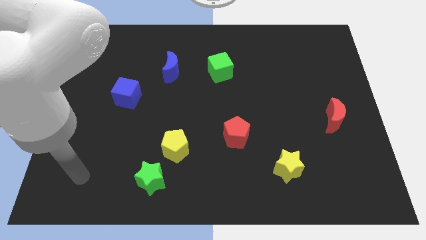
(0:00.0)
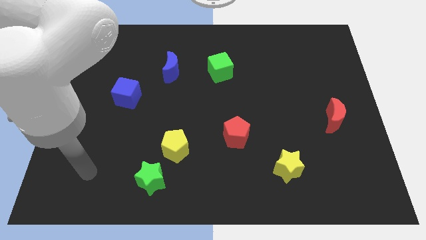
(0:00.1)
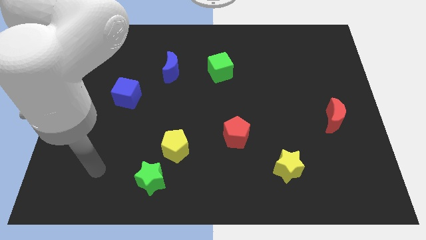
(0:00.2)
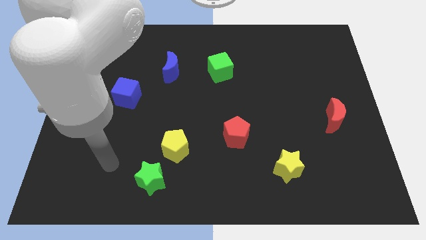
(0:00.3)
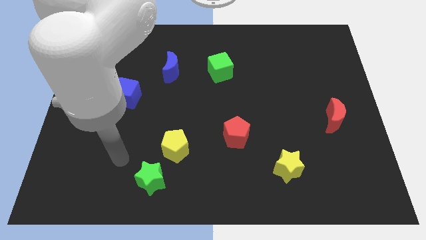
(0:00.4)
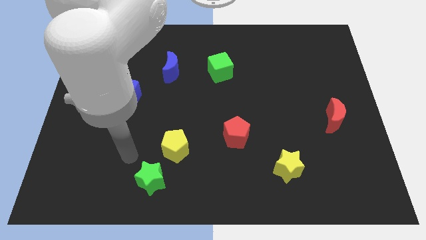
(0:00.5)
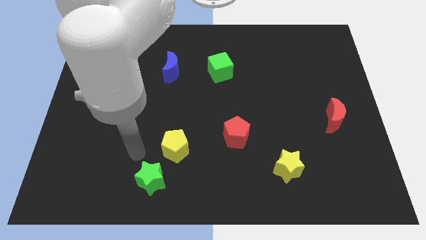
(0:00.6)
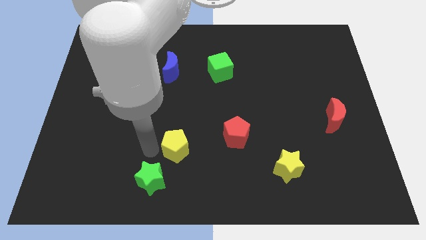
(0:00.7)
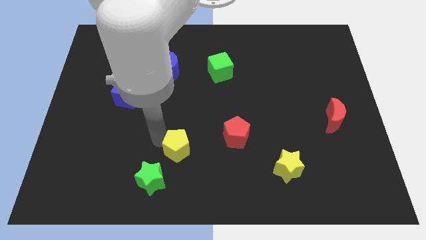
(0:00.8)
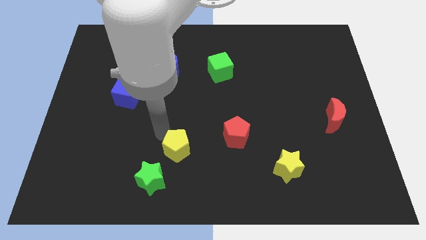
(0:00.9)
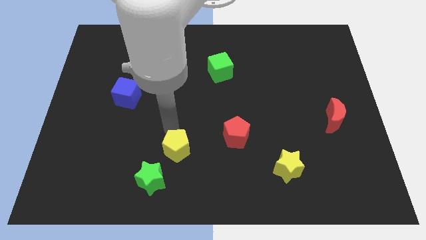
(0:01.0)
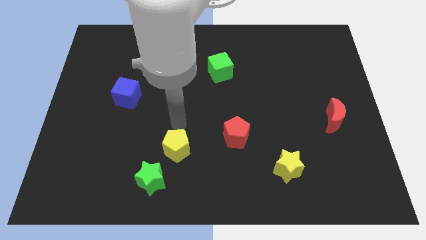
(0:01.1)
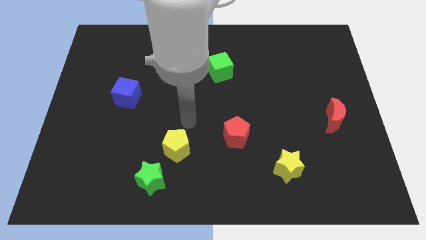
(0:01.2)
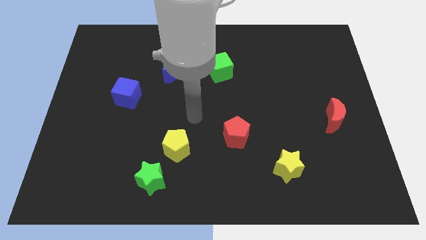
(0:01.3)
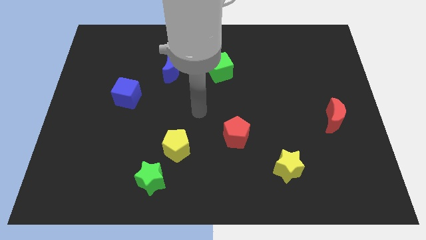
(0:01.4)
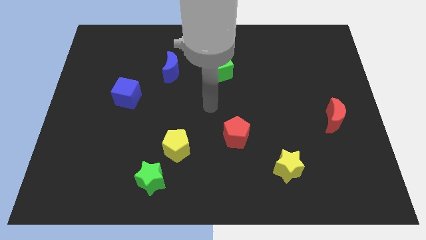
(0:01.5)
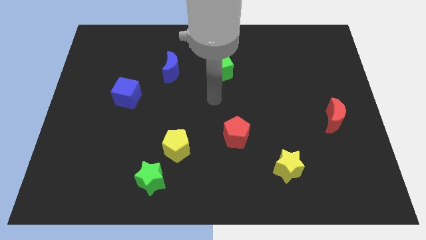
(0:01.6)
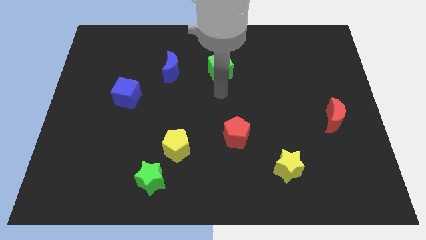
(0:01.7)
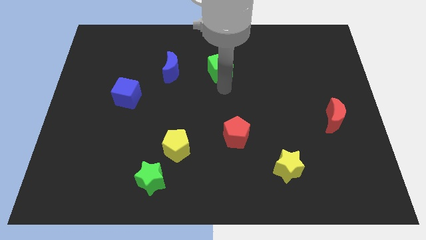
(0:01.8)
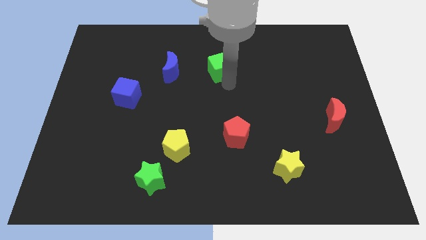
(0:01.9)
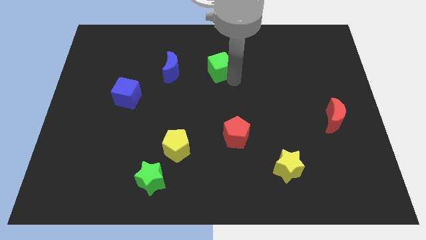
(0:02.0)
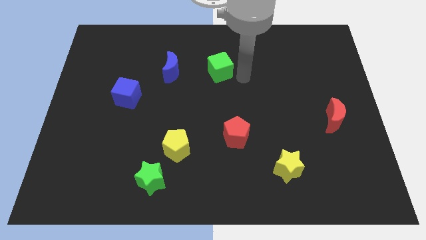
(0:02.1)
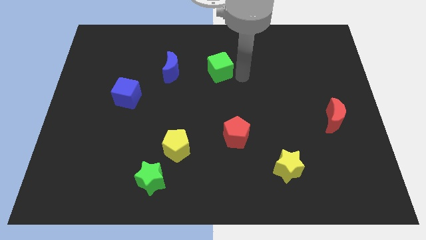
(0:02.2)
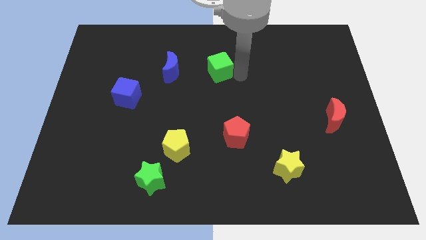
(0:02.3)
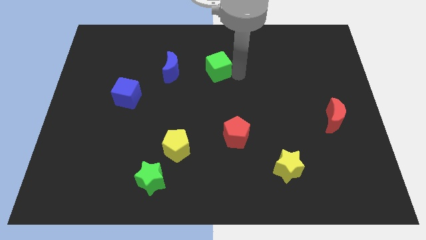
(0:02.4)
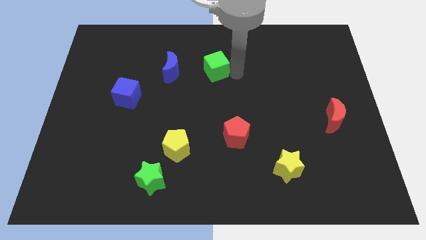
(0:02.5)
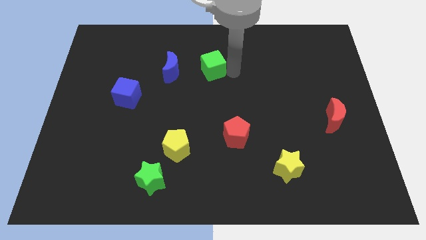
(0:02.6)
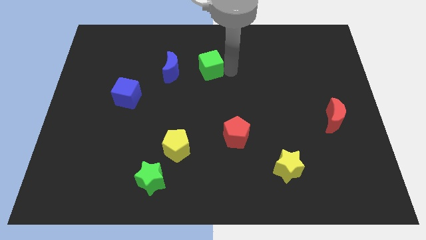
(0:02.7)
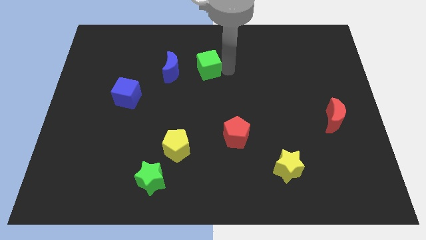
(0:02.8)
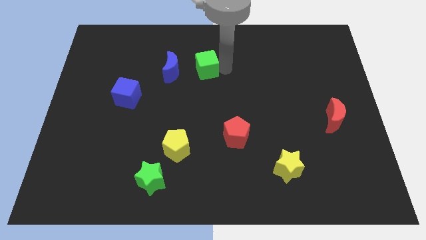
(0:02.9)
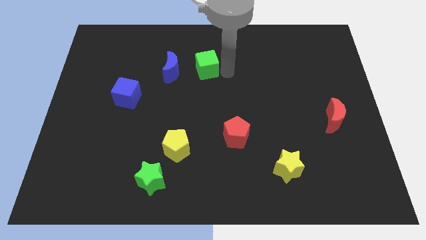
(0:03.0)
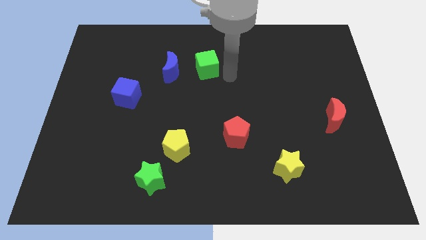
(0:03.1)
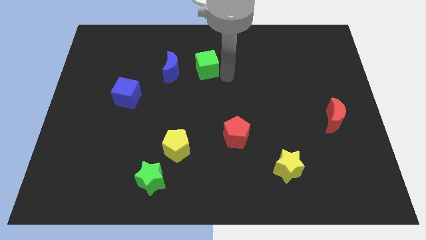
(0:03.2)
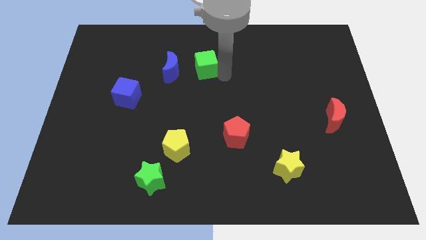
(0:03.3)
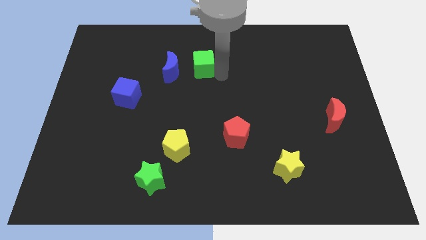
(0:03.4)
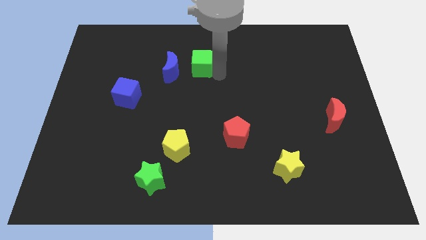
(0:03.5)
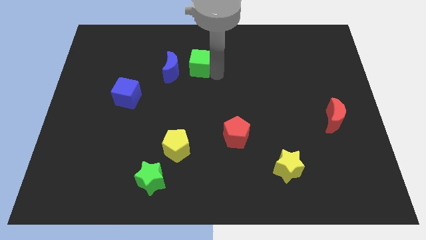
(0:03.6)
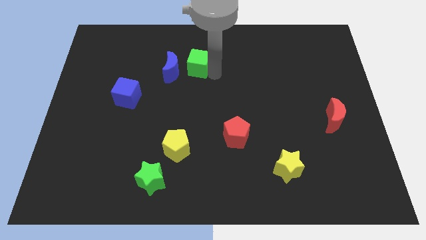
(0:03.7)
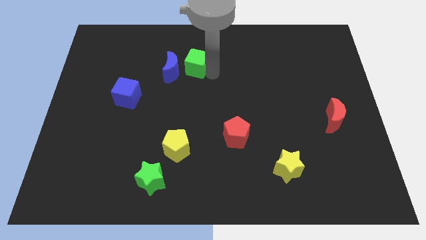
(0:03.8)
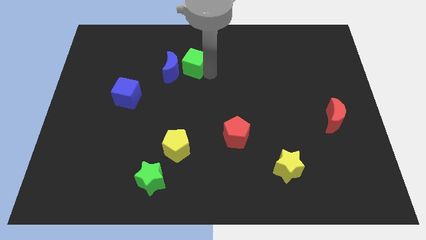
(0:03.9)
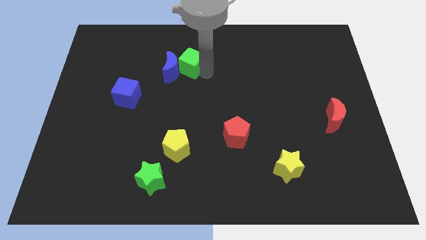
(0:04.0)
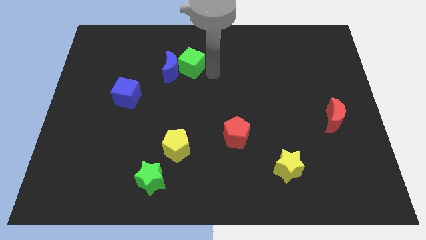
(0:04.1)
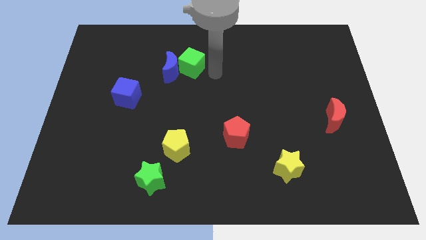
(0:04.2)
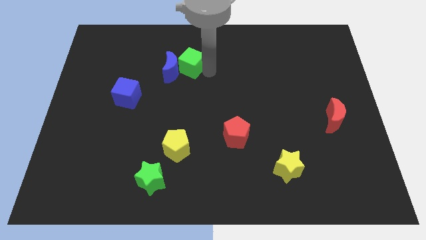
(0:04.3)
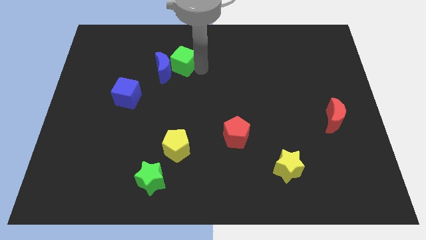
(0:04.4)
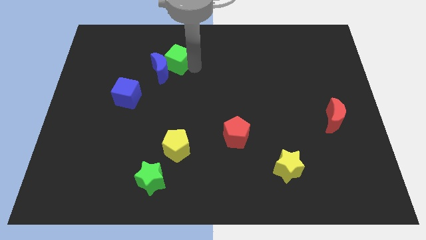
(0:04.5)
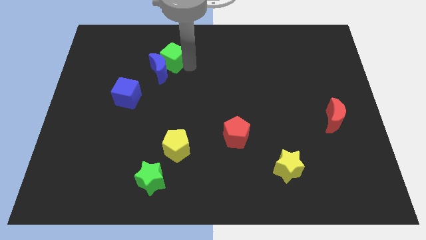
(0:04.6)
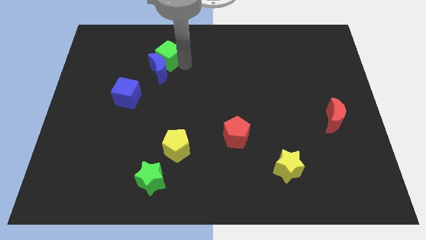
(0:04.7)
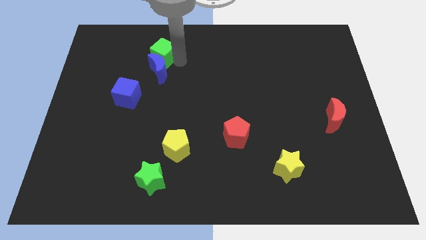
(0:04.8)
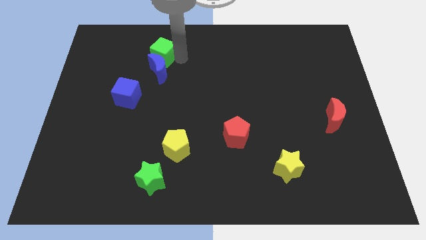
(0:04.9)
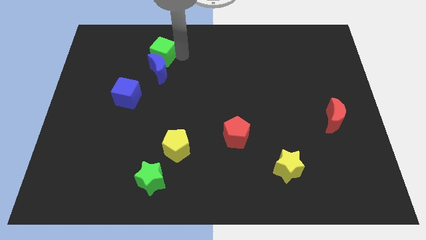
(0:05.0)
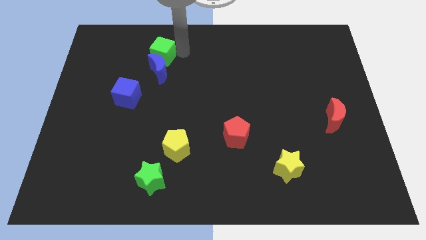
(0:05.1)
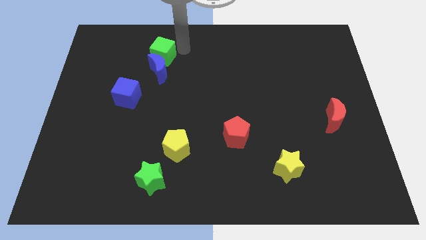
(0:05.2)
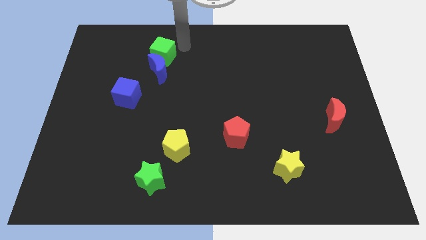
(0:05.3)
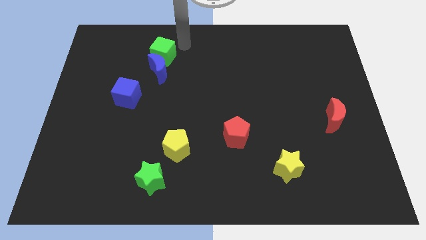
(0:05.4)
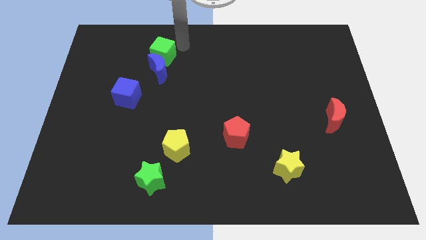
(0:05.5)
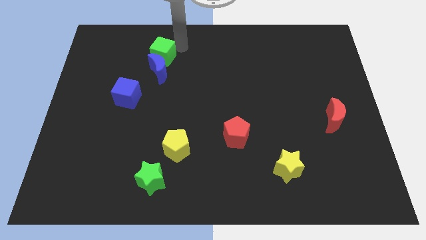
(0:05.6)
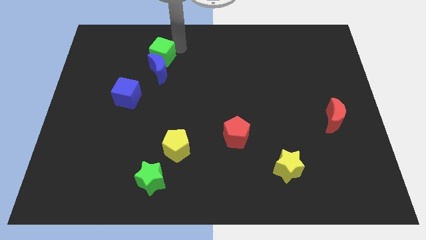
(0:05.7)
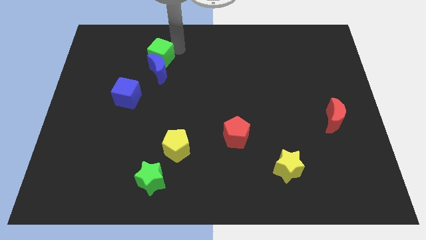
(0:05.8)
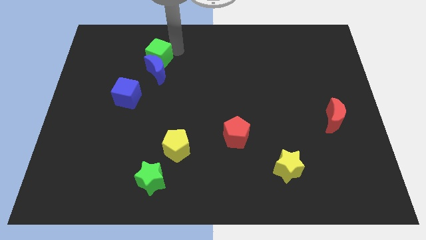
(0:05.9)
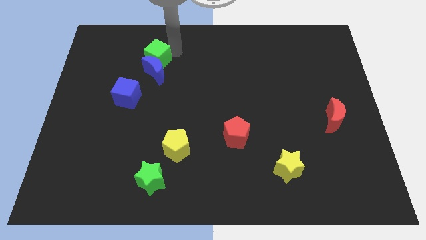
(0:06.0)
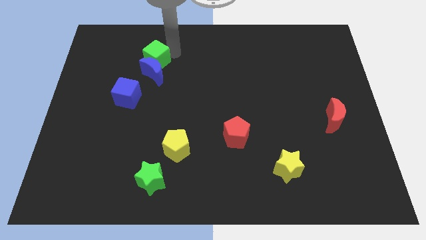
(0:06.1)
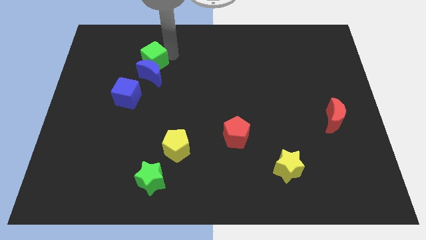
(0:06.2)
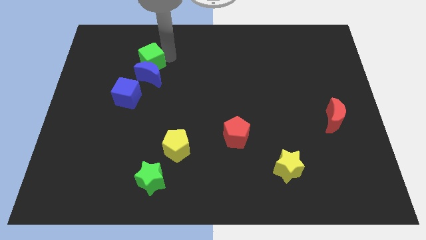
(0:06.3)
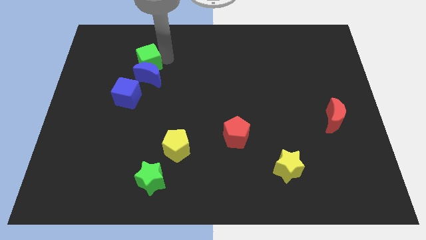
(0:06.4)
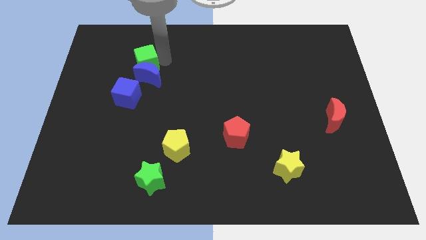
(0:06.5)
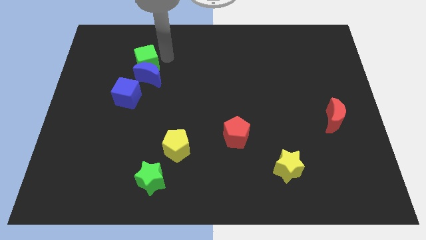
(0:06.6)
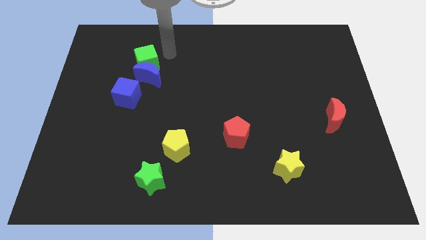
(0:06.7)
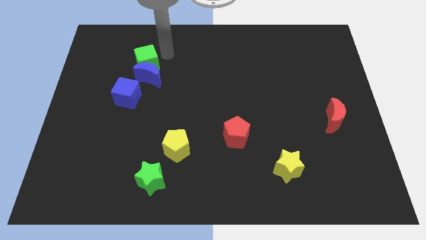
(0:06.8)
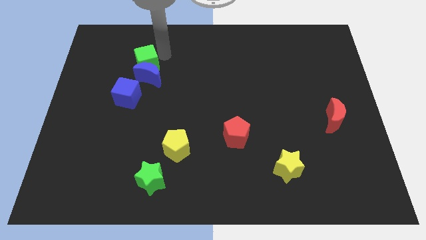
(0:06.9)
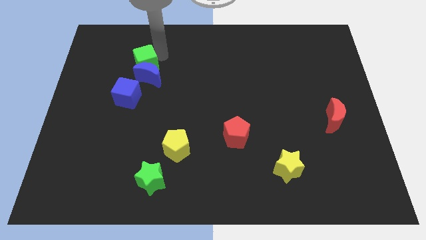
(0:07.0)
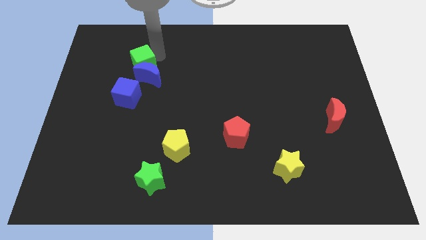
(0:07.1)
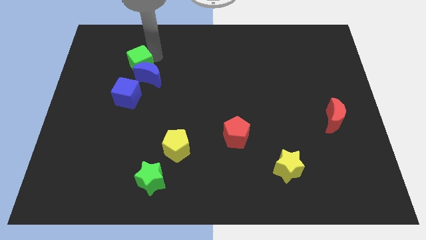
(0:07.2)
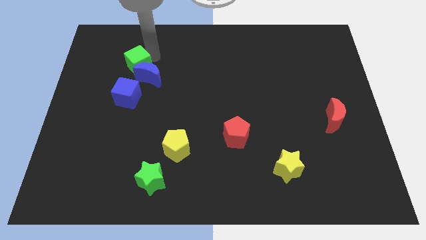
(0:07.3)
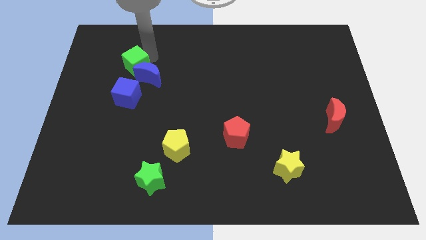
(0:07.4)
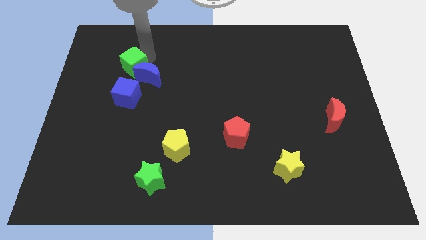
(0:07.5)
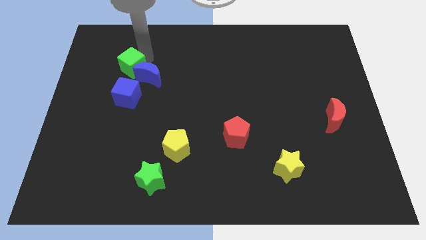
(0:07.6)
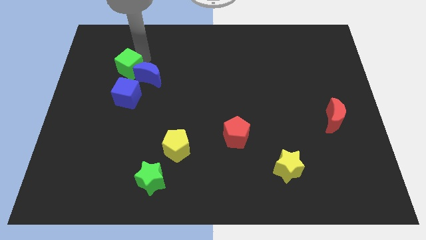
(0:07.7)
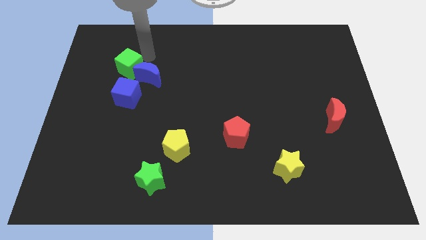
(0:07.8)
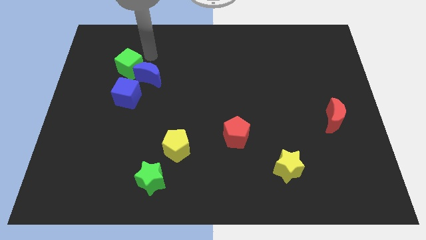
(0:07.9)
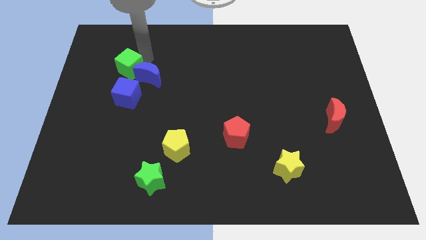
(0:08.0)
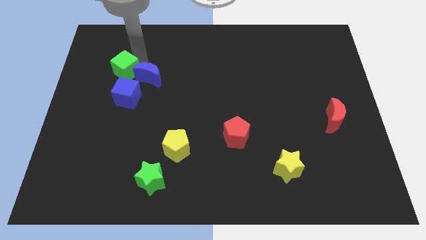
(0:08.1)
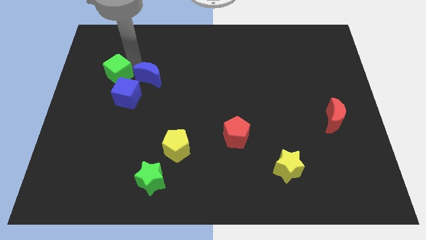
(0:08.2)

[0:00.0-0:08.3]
slide the green cube diagonally up and to the left of the blue cube
